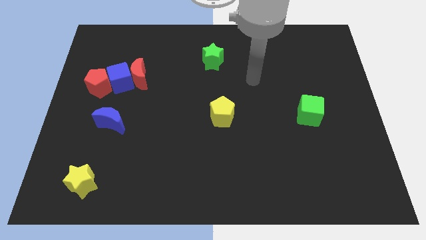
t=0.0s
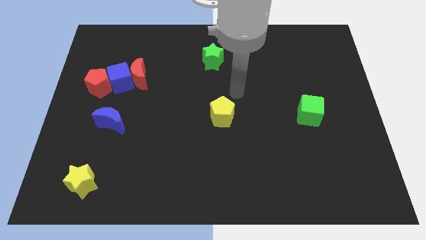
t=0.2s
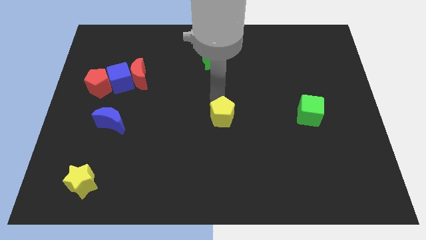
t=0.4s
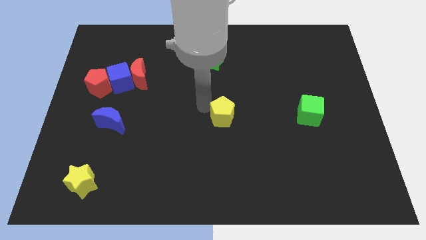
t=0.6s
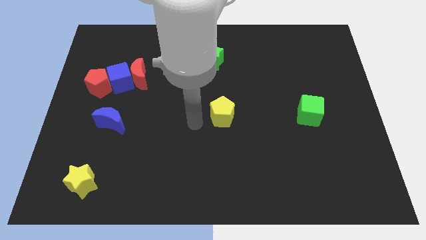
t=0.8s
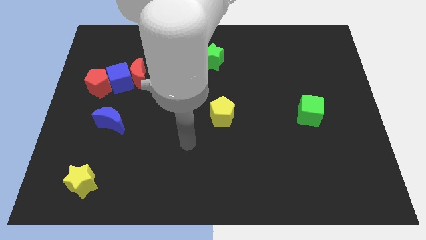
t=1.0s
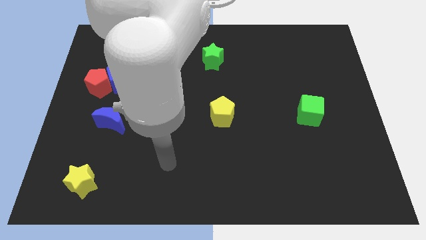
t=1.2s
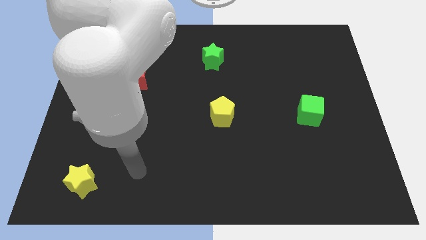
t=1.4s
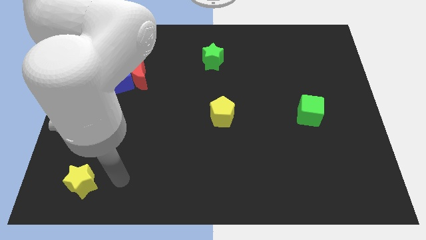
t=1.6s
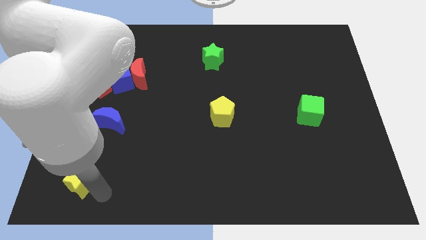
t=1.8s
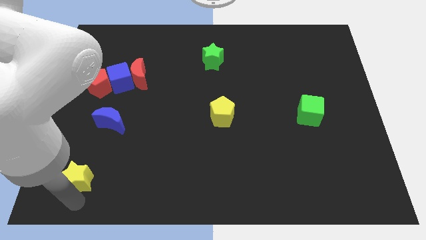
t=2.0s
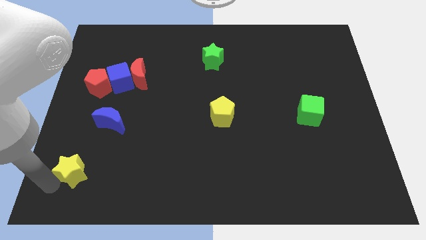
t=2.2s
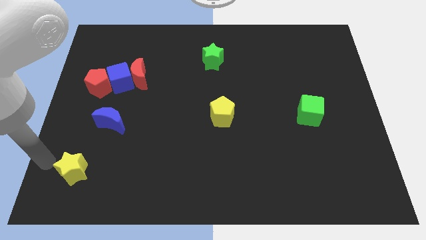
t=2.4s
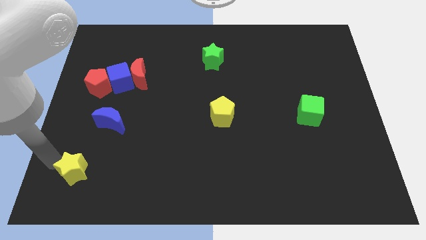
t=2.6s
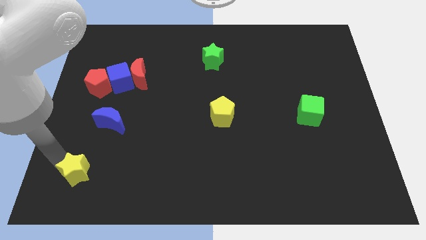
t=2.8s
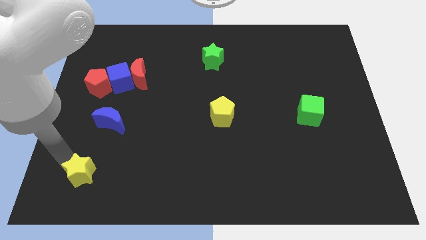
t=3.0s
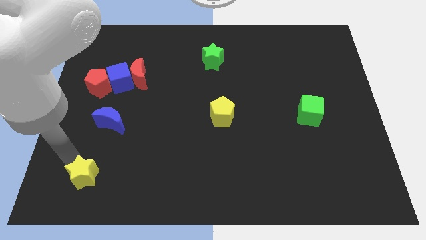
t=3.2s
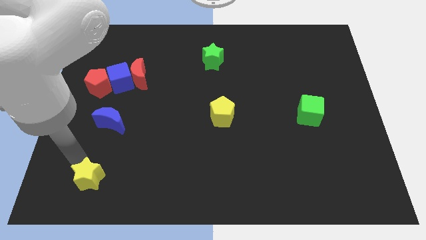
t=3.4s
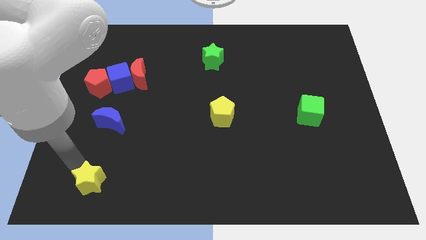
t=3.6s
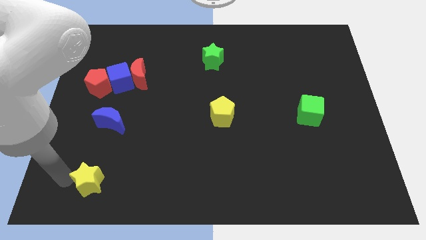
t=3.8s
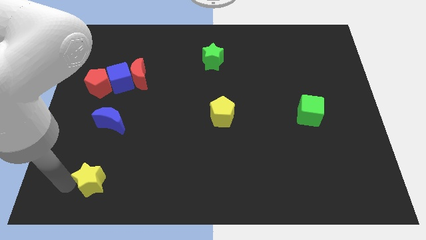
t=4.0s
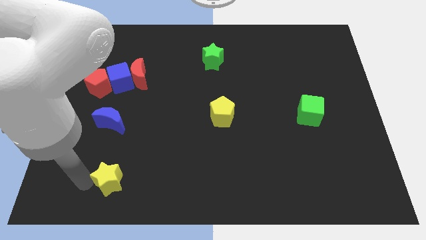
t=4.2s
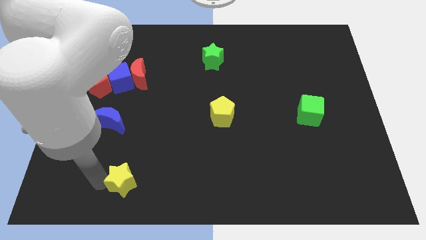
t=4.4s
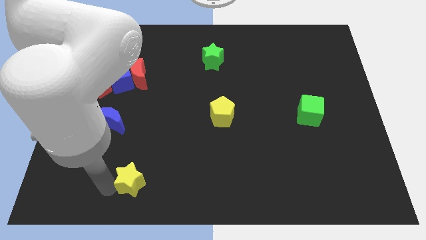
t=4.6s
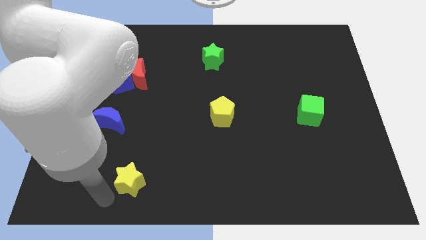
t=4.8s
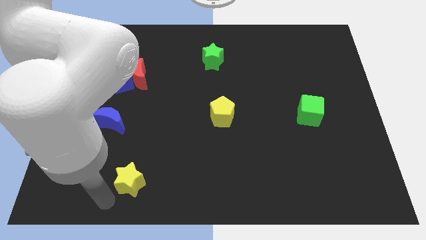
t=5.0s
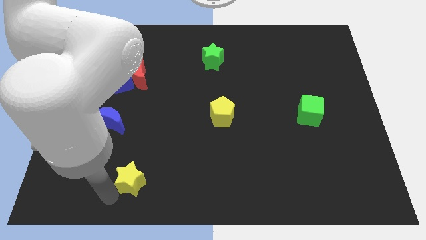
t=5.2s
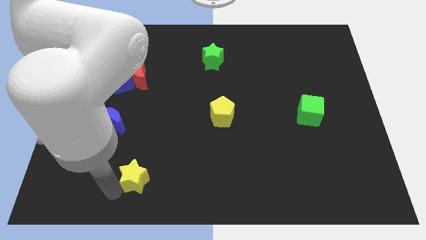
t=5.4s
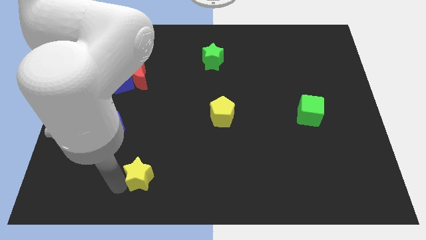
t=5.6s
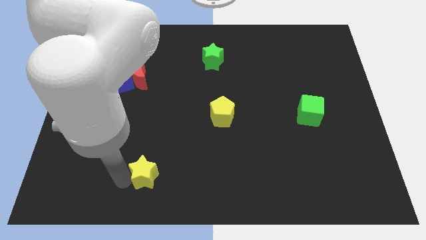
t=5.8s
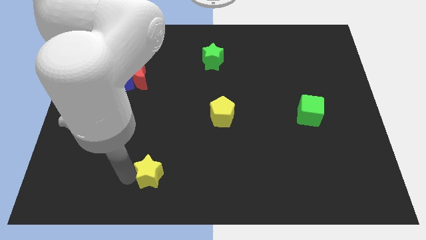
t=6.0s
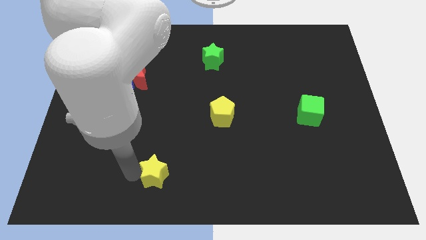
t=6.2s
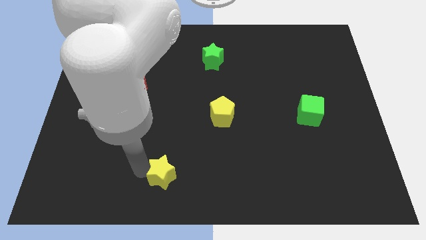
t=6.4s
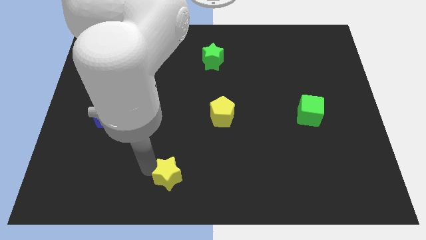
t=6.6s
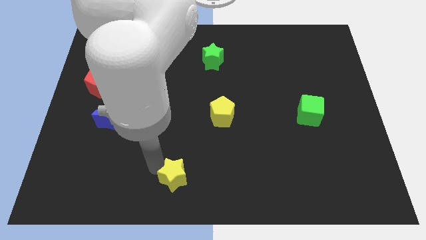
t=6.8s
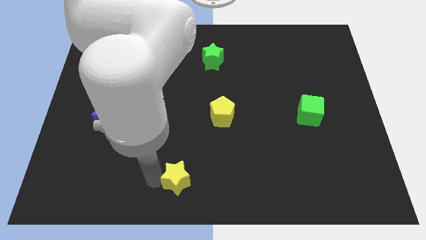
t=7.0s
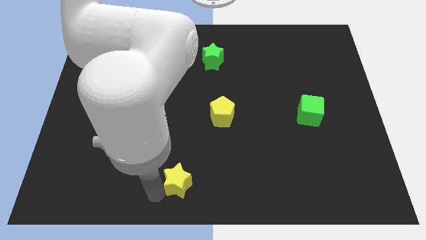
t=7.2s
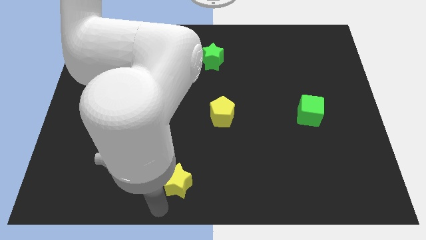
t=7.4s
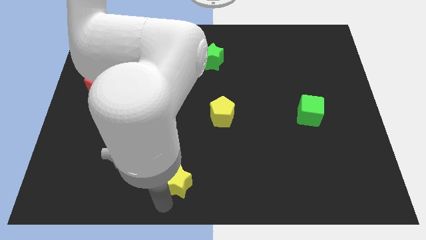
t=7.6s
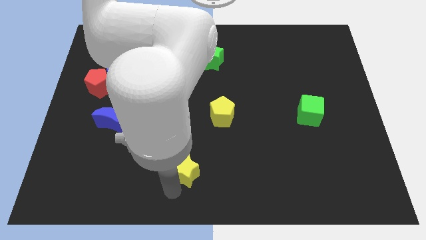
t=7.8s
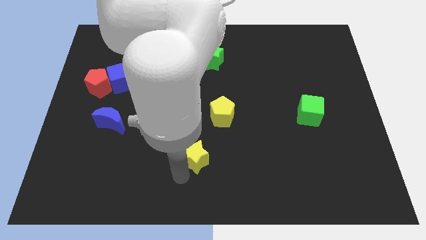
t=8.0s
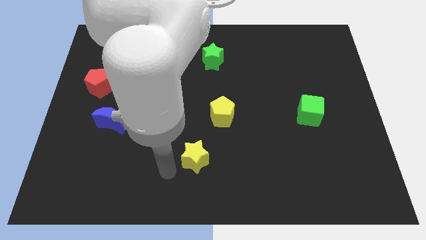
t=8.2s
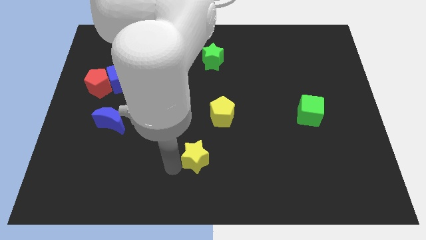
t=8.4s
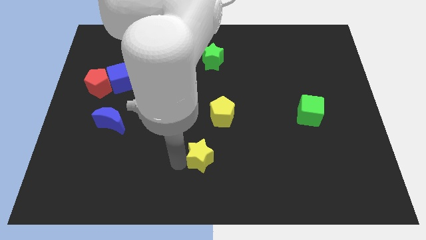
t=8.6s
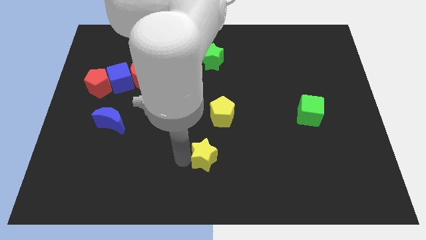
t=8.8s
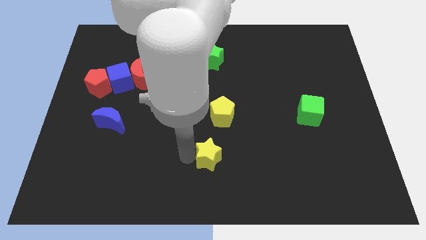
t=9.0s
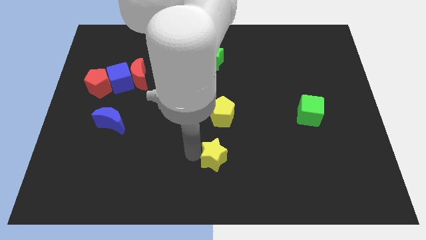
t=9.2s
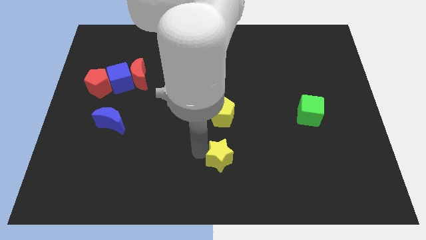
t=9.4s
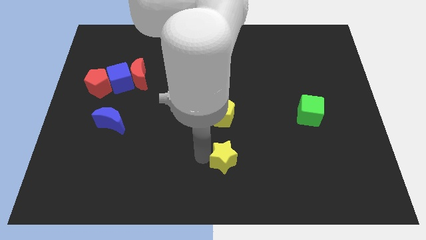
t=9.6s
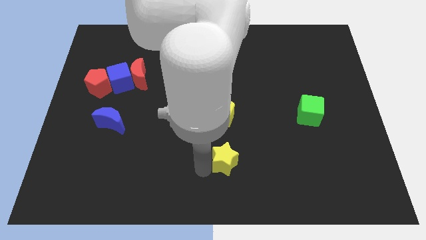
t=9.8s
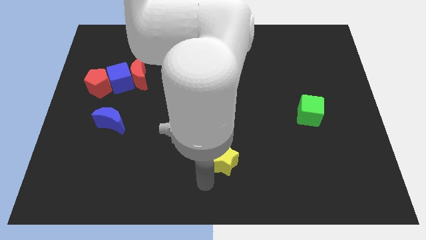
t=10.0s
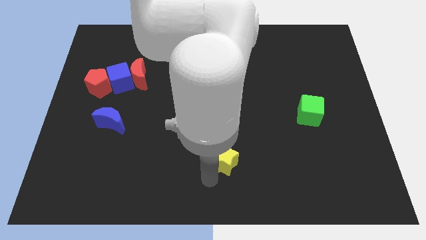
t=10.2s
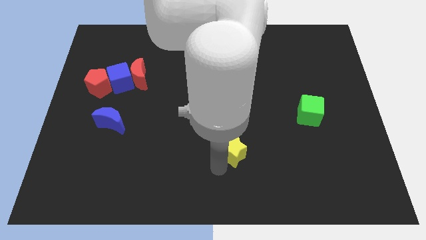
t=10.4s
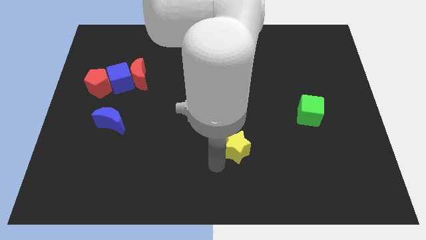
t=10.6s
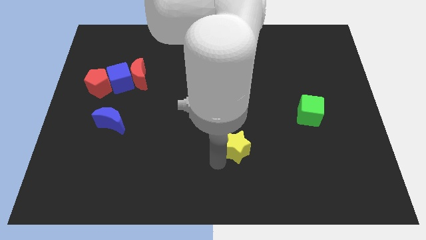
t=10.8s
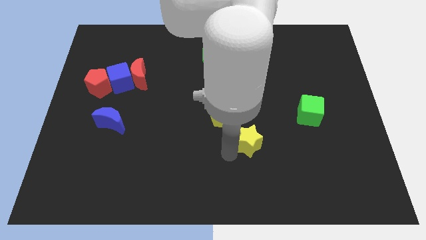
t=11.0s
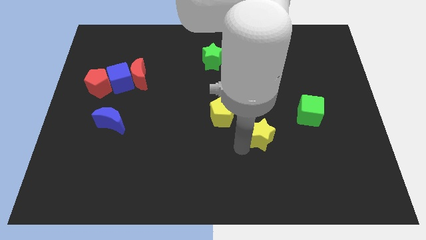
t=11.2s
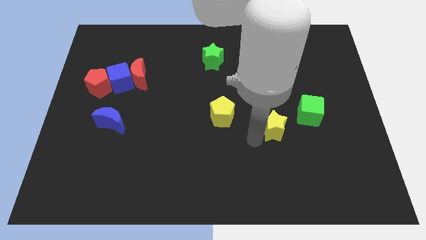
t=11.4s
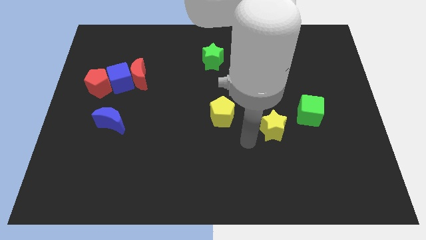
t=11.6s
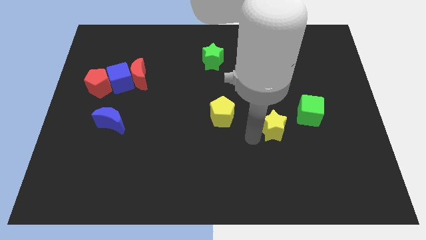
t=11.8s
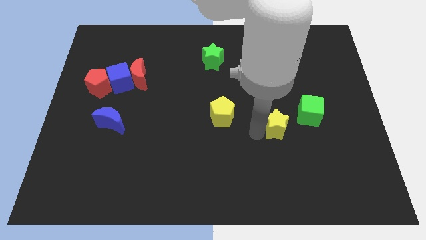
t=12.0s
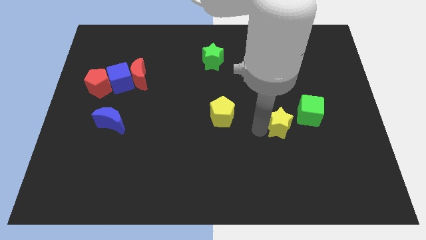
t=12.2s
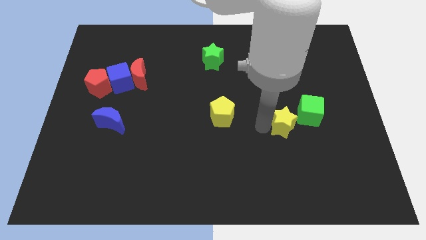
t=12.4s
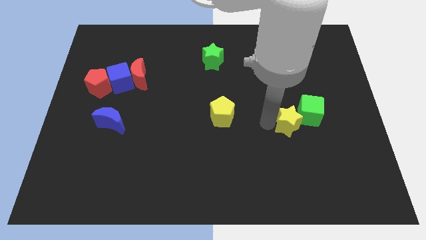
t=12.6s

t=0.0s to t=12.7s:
put the yellow star next to the green cube

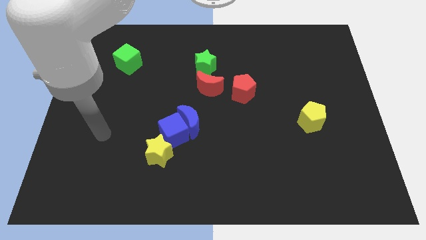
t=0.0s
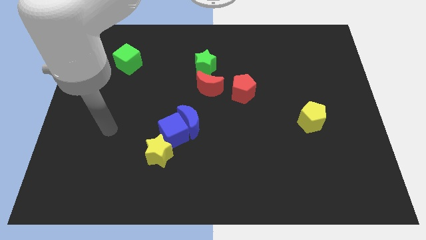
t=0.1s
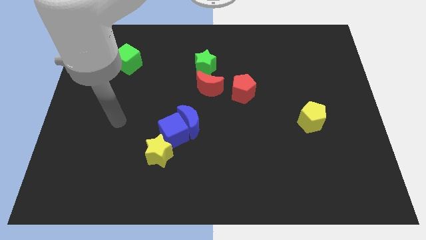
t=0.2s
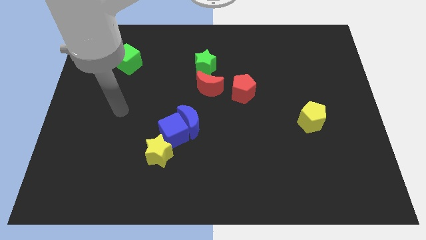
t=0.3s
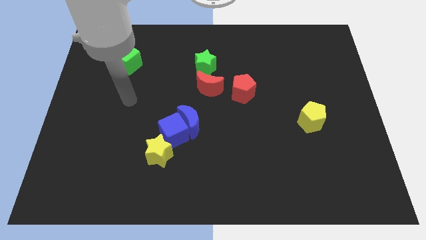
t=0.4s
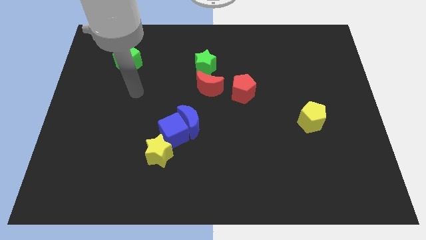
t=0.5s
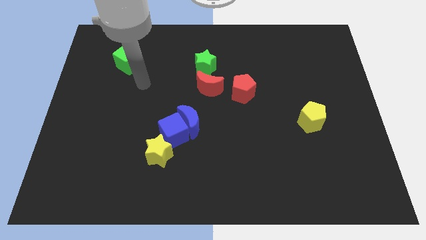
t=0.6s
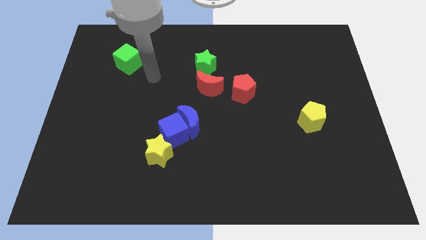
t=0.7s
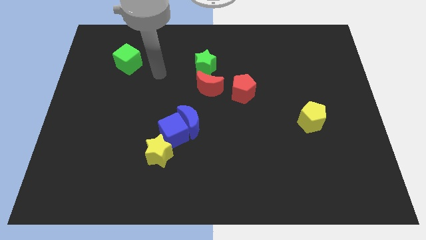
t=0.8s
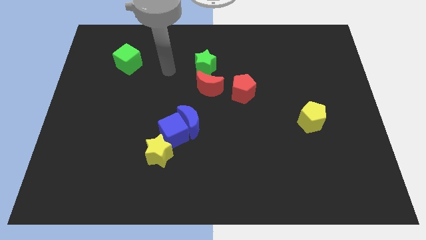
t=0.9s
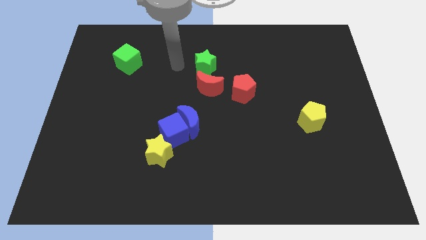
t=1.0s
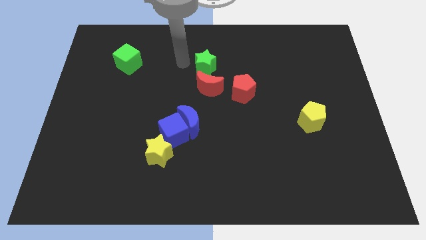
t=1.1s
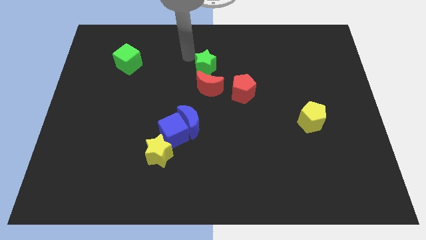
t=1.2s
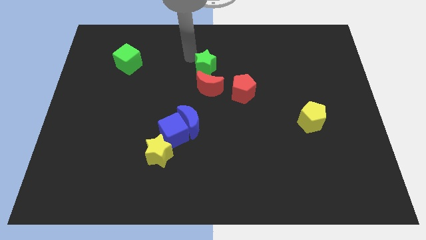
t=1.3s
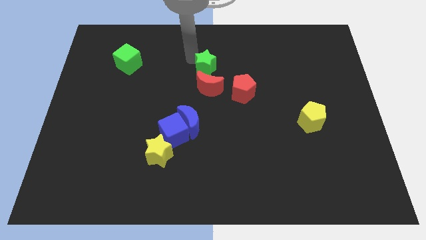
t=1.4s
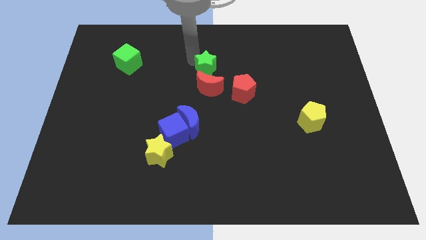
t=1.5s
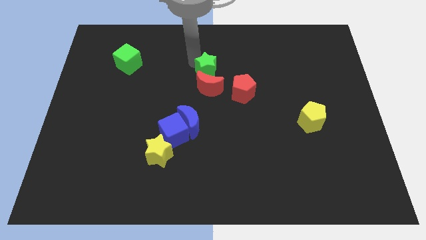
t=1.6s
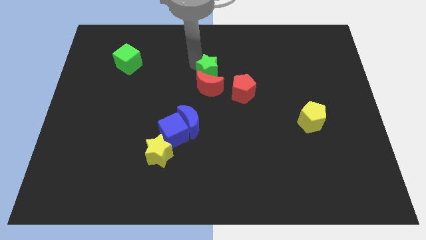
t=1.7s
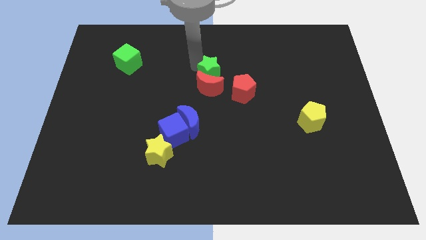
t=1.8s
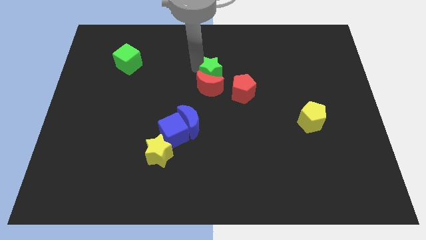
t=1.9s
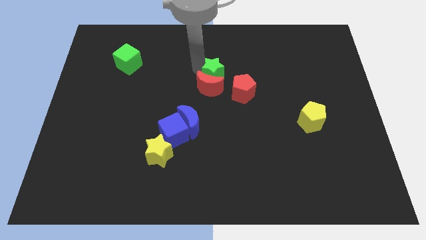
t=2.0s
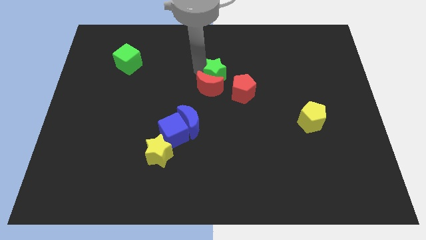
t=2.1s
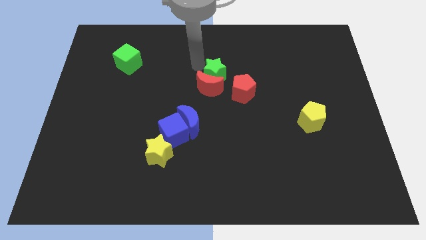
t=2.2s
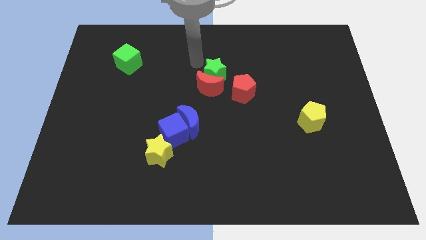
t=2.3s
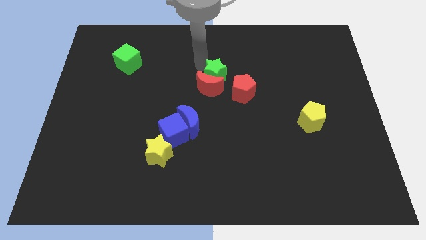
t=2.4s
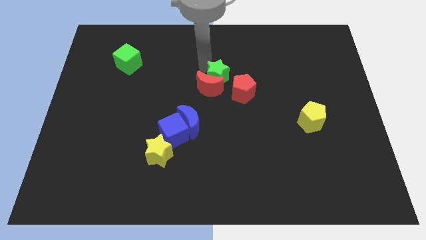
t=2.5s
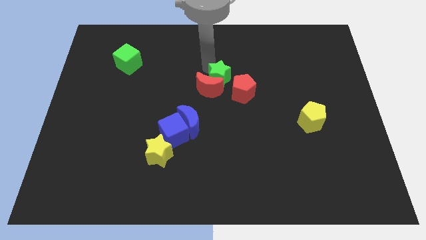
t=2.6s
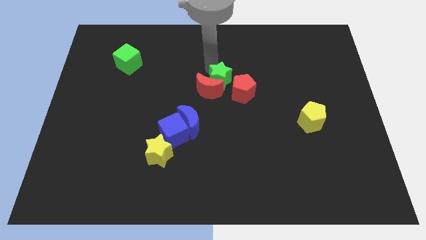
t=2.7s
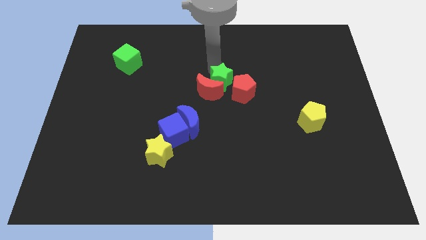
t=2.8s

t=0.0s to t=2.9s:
move the green star to the red pentagon
